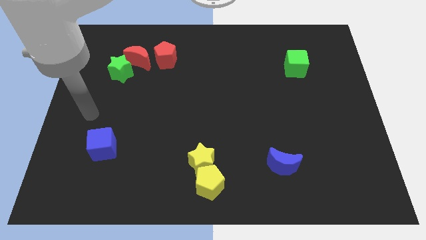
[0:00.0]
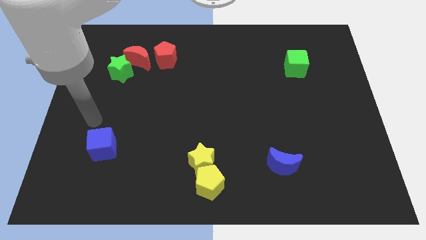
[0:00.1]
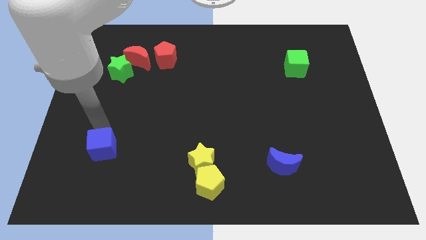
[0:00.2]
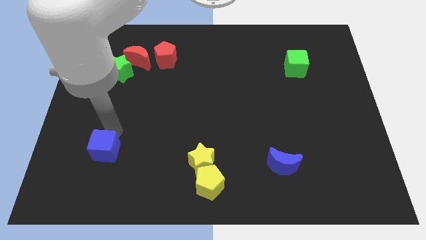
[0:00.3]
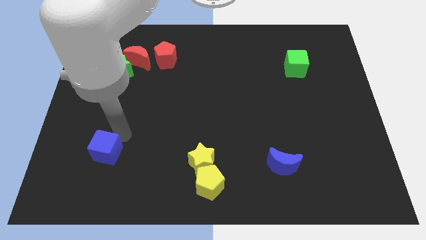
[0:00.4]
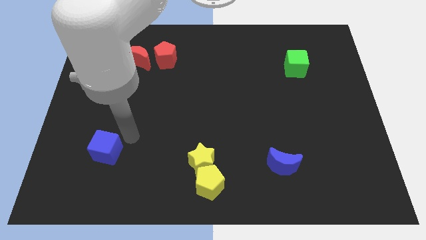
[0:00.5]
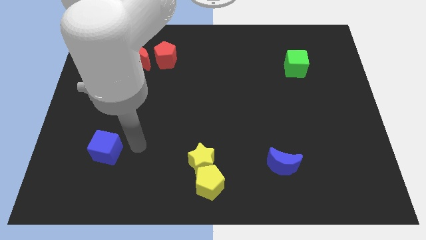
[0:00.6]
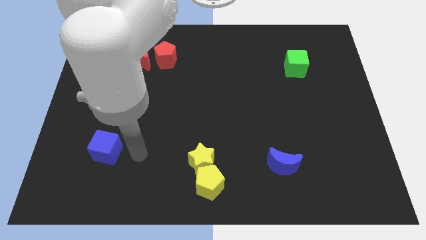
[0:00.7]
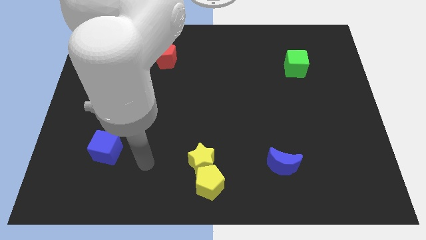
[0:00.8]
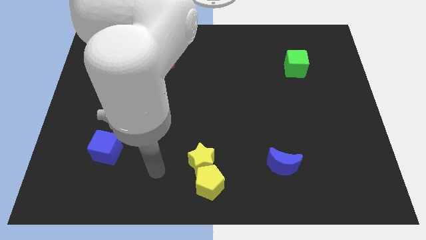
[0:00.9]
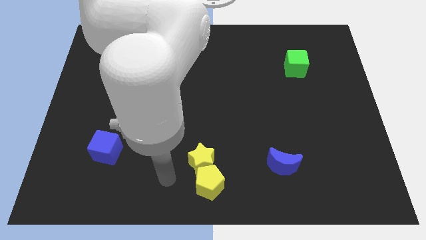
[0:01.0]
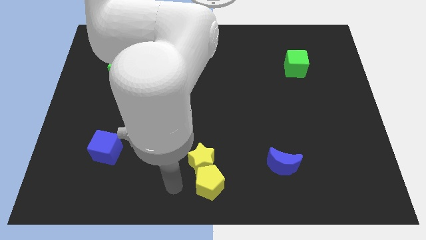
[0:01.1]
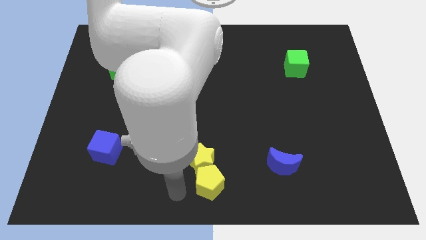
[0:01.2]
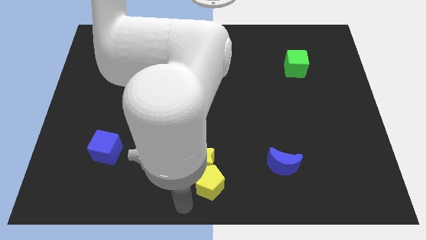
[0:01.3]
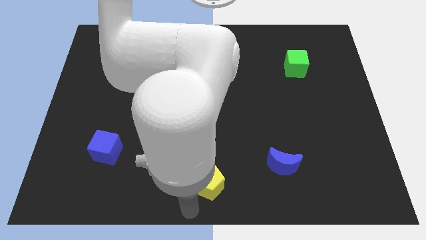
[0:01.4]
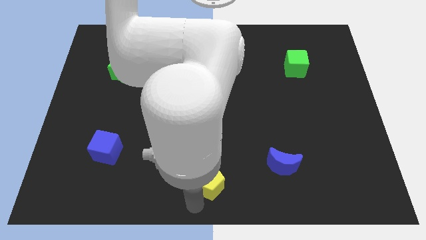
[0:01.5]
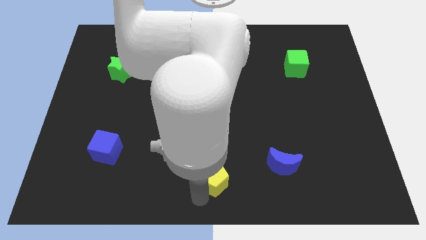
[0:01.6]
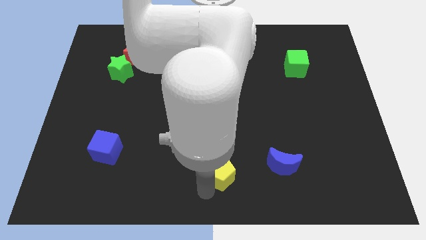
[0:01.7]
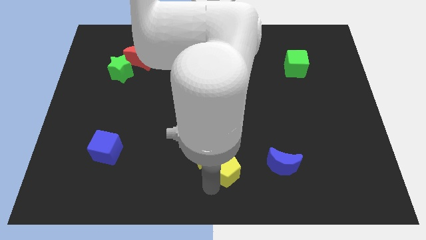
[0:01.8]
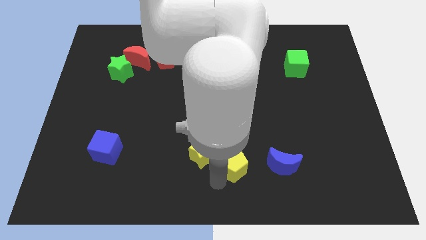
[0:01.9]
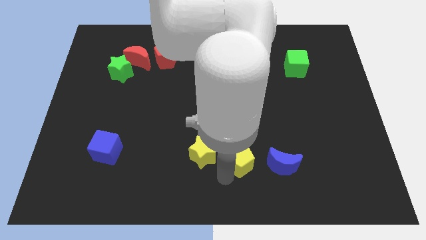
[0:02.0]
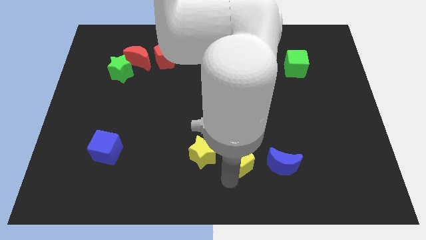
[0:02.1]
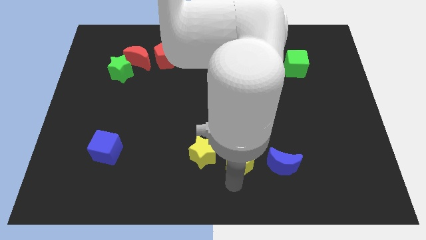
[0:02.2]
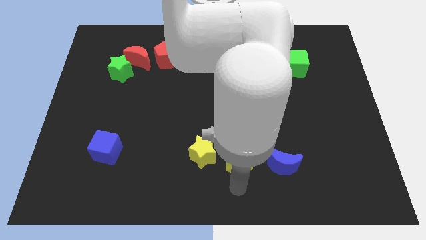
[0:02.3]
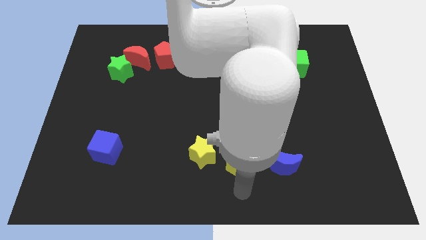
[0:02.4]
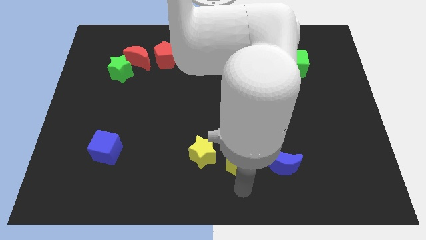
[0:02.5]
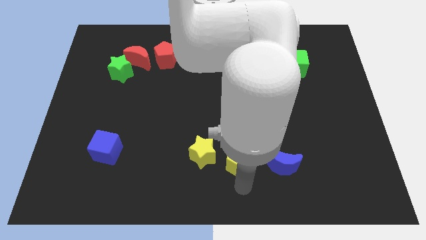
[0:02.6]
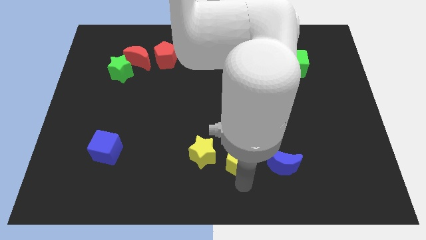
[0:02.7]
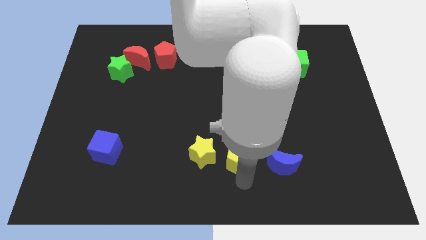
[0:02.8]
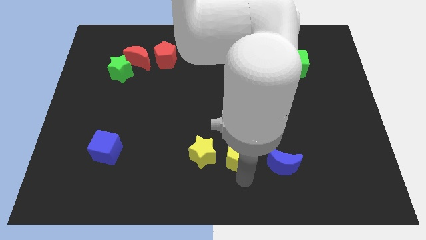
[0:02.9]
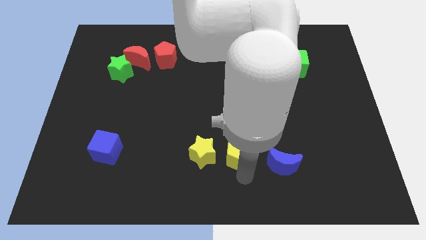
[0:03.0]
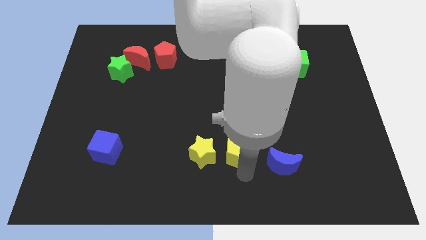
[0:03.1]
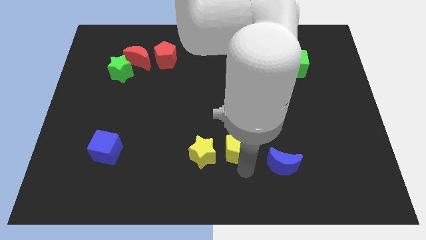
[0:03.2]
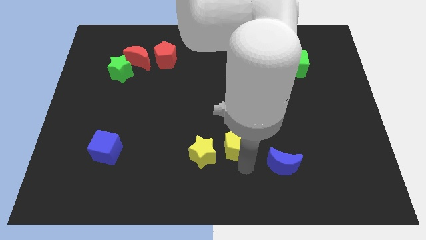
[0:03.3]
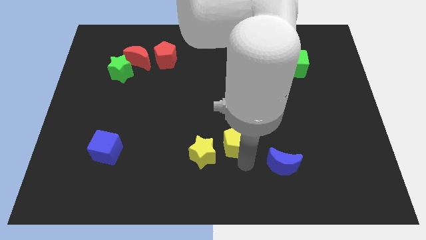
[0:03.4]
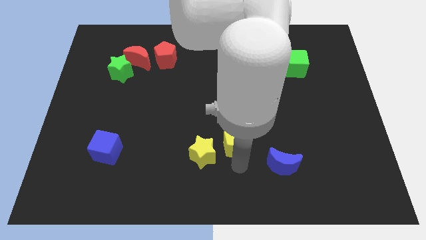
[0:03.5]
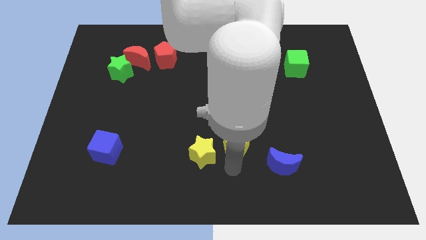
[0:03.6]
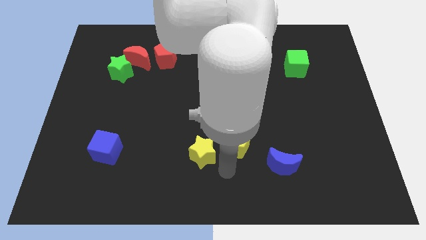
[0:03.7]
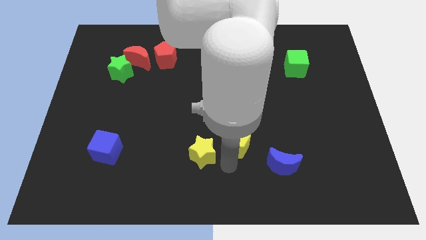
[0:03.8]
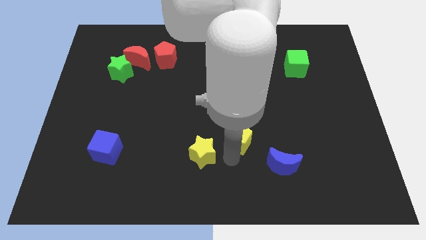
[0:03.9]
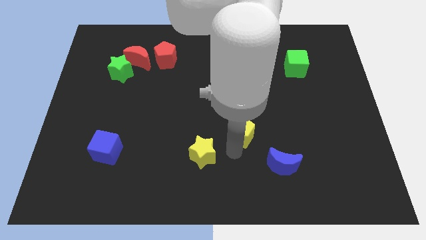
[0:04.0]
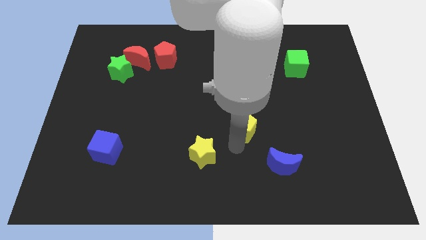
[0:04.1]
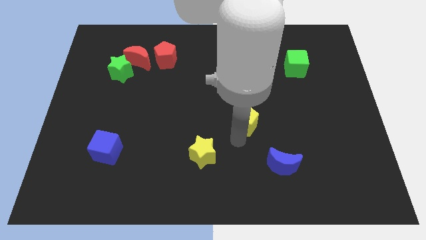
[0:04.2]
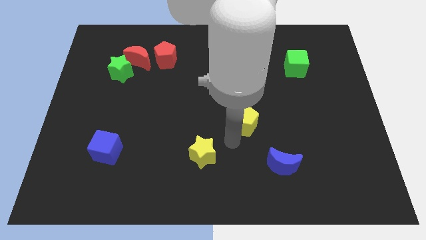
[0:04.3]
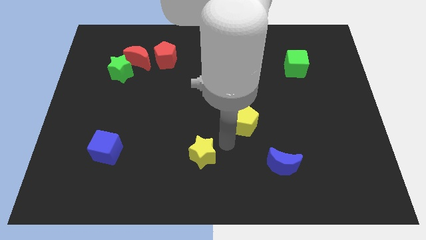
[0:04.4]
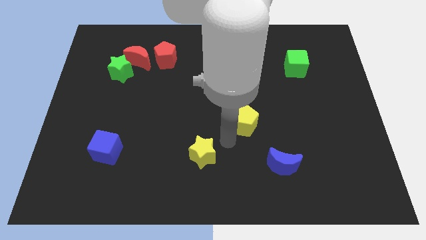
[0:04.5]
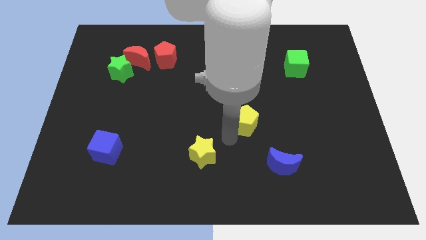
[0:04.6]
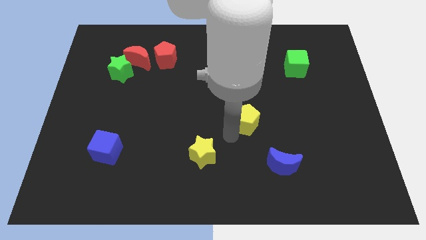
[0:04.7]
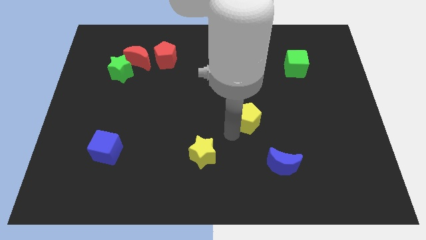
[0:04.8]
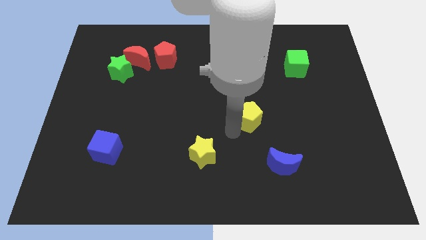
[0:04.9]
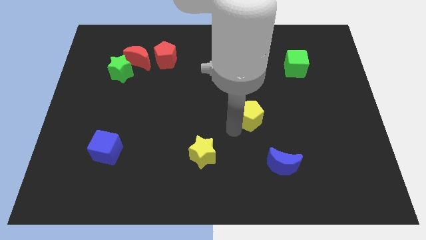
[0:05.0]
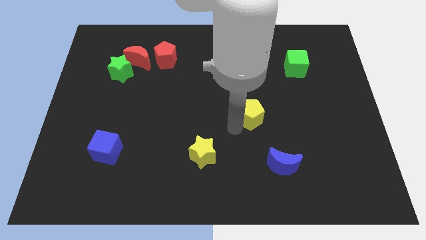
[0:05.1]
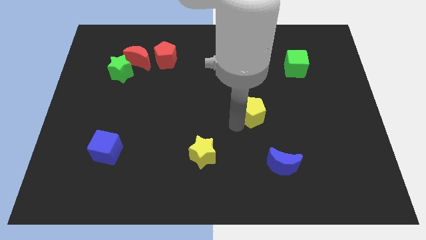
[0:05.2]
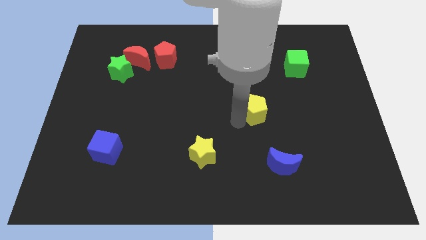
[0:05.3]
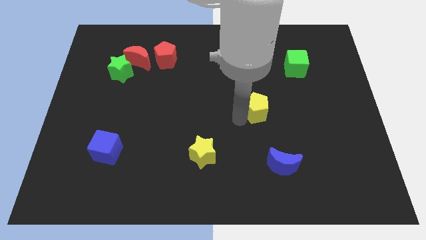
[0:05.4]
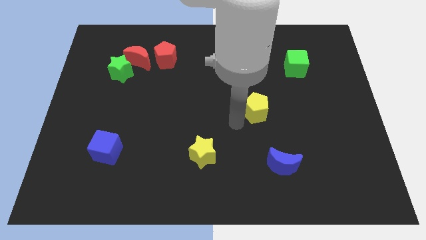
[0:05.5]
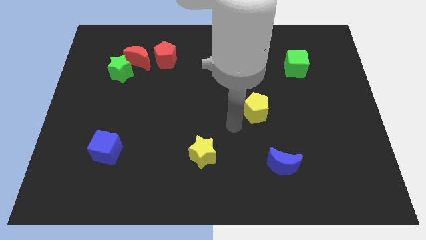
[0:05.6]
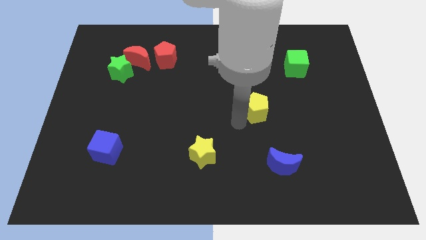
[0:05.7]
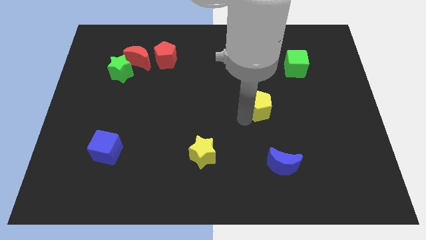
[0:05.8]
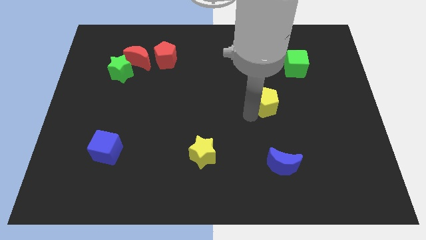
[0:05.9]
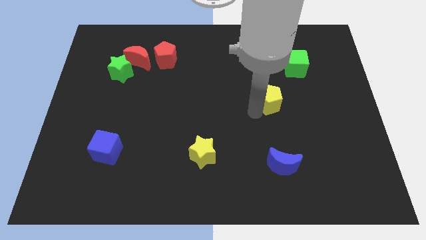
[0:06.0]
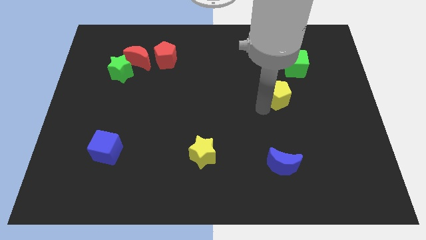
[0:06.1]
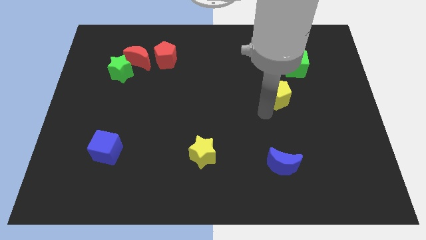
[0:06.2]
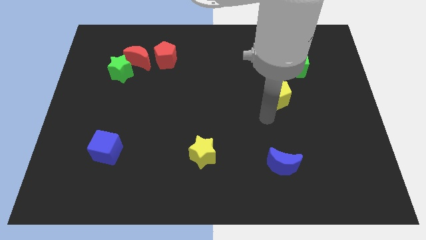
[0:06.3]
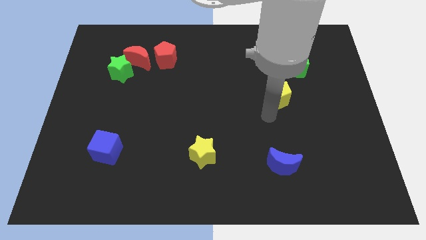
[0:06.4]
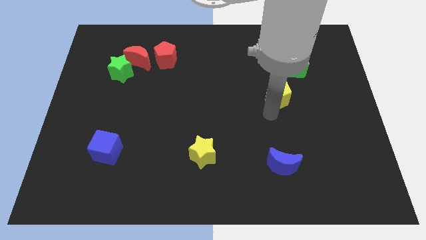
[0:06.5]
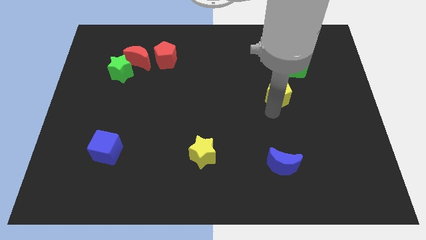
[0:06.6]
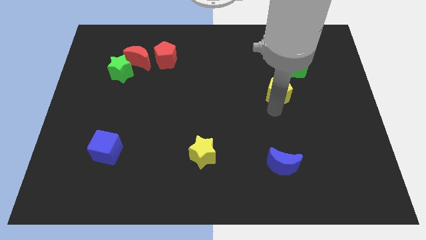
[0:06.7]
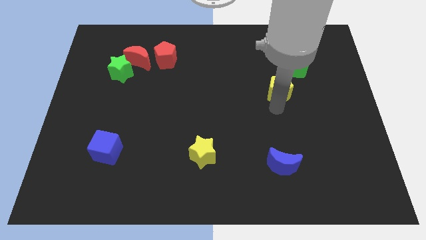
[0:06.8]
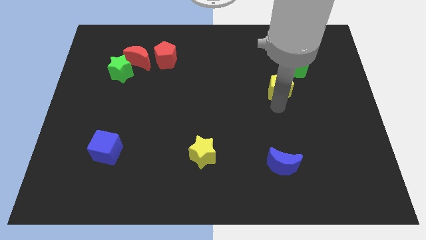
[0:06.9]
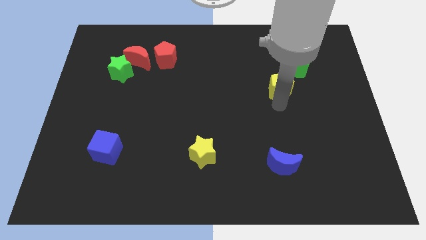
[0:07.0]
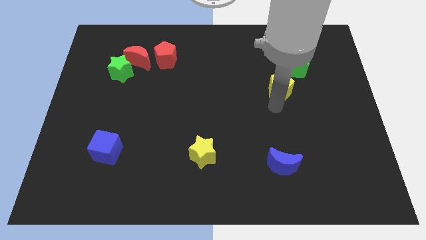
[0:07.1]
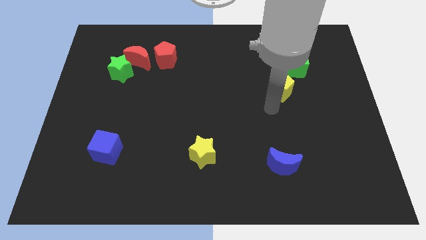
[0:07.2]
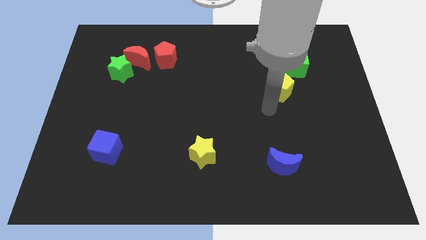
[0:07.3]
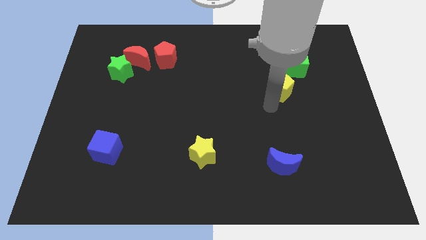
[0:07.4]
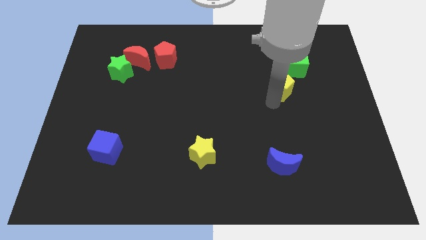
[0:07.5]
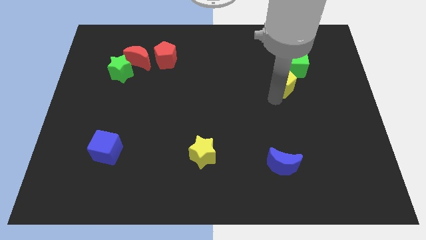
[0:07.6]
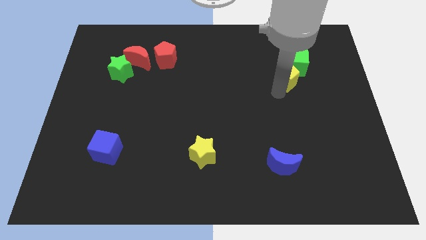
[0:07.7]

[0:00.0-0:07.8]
put the yellow pentagon close to the green cube

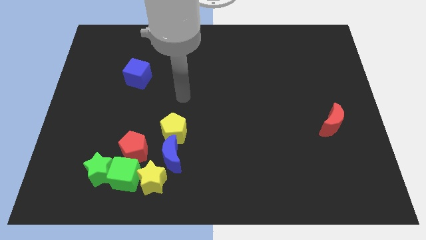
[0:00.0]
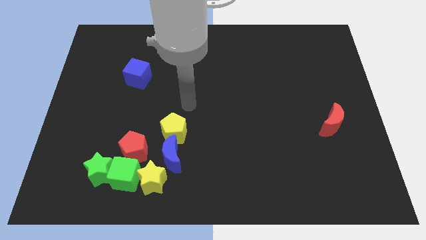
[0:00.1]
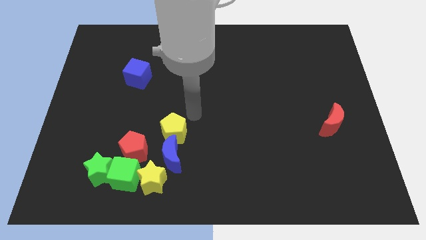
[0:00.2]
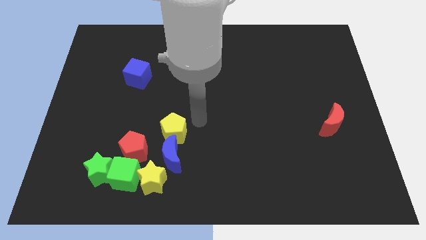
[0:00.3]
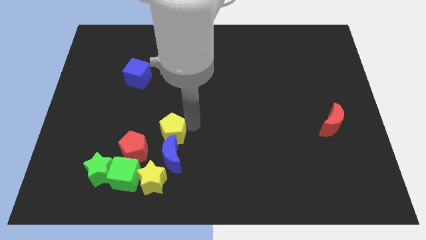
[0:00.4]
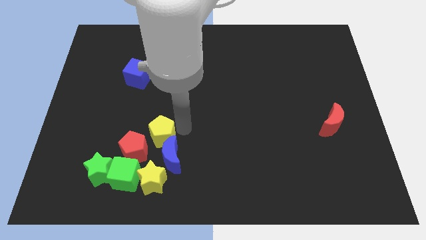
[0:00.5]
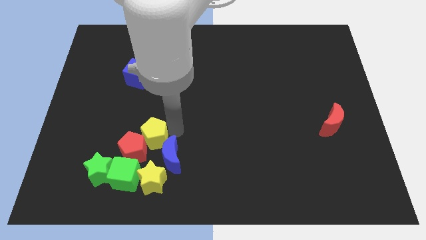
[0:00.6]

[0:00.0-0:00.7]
push the yellow pentagon next to the red pentagon
